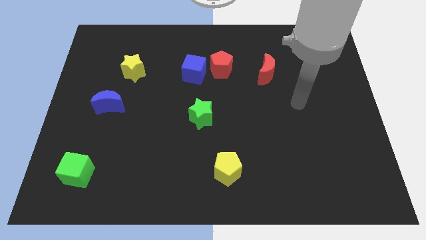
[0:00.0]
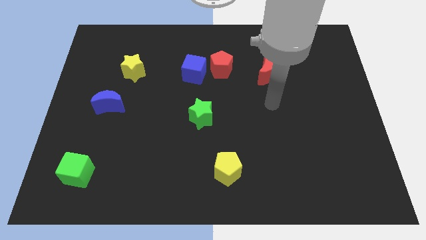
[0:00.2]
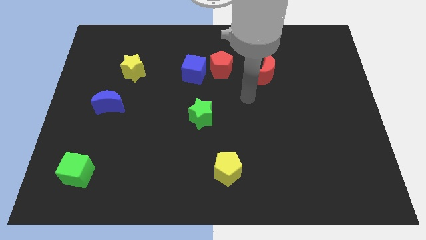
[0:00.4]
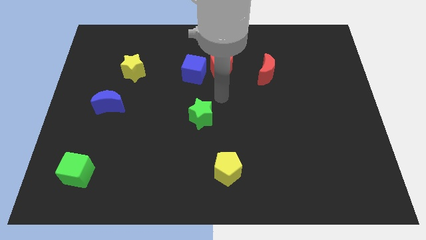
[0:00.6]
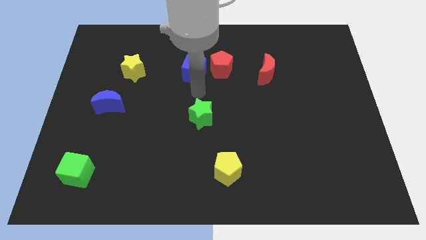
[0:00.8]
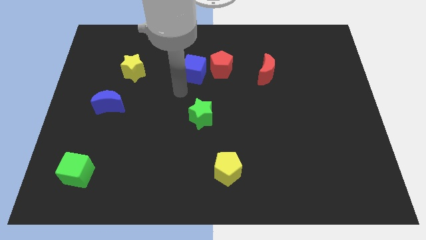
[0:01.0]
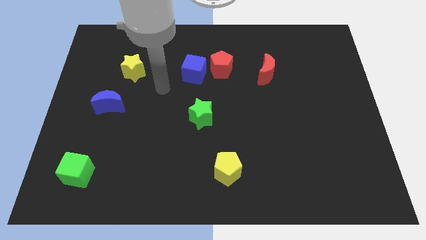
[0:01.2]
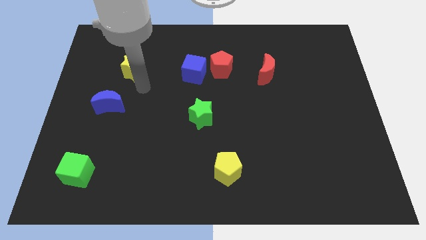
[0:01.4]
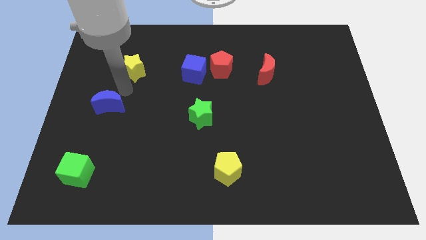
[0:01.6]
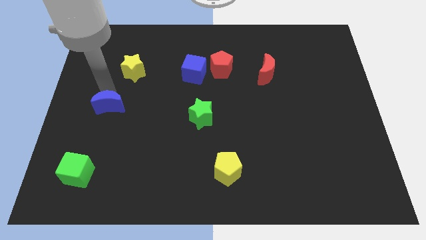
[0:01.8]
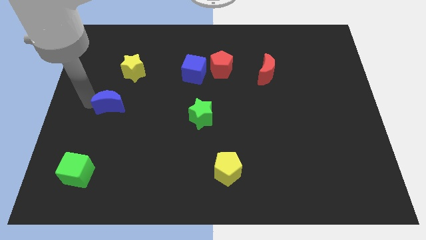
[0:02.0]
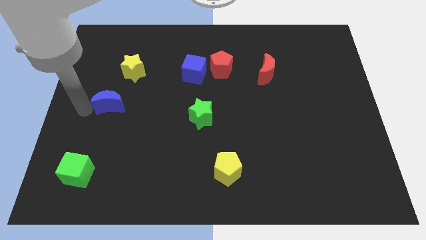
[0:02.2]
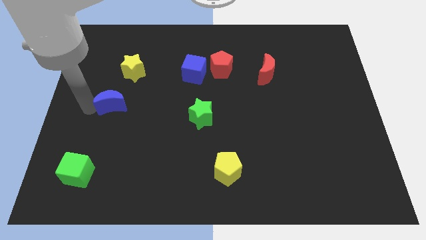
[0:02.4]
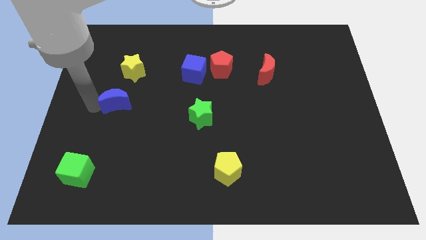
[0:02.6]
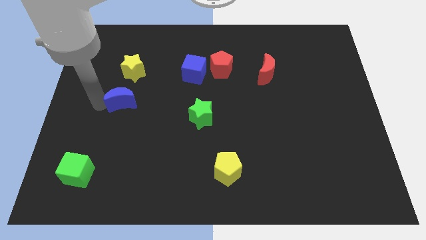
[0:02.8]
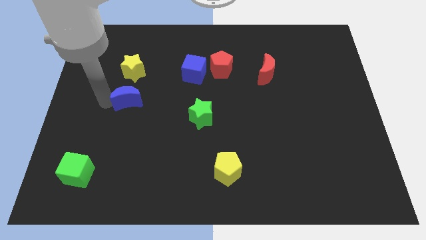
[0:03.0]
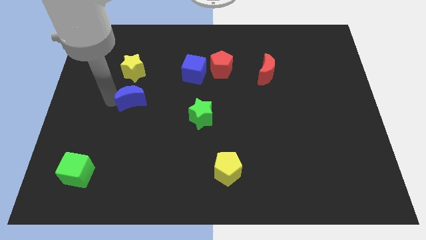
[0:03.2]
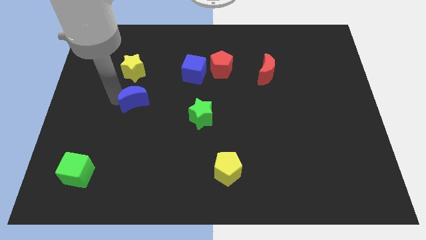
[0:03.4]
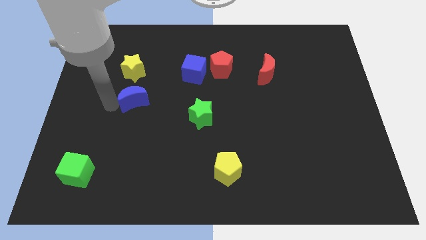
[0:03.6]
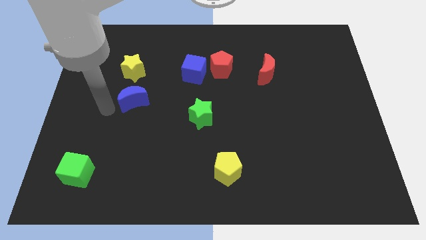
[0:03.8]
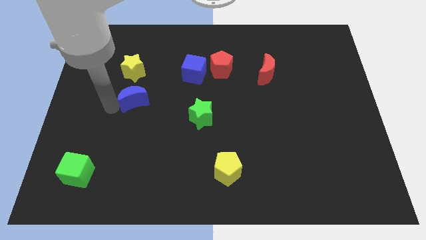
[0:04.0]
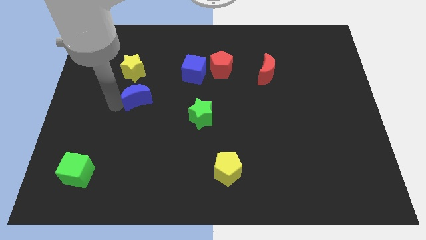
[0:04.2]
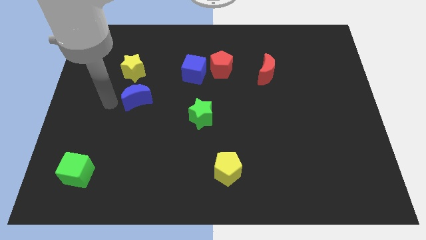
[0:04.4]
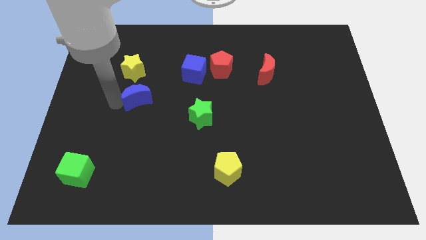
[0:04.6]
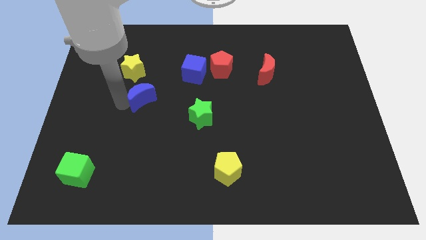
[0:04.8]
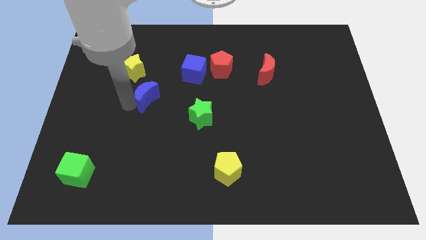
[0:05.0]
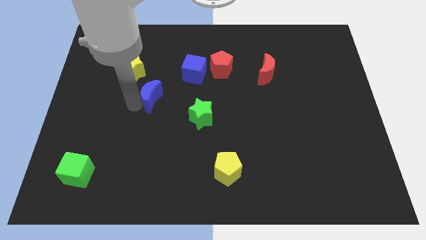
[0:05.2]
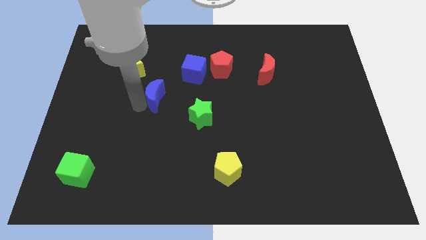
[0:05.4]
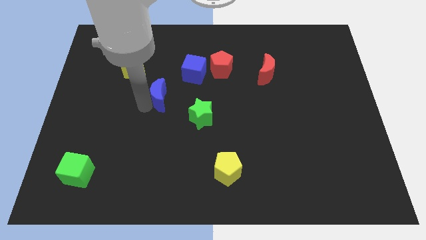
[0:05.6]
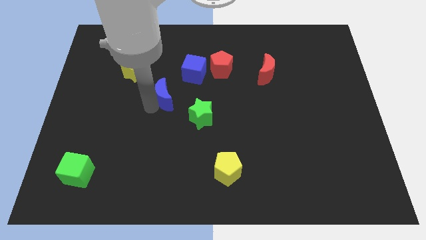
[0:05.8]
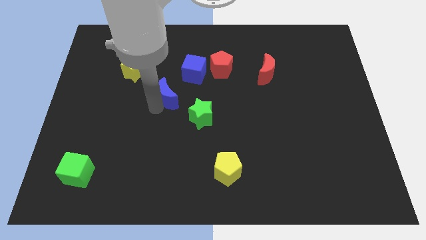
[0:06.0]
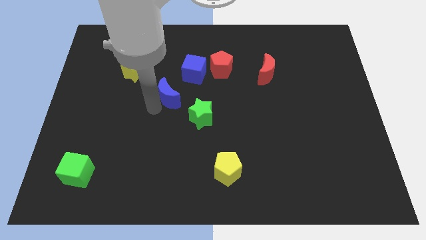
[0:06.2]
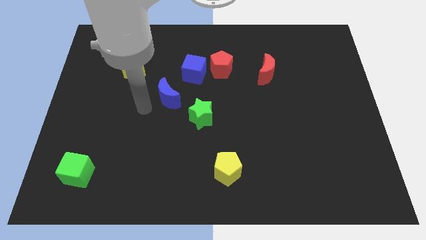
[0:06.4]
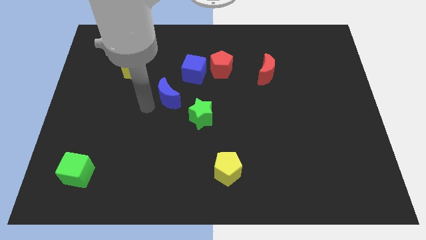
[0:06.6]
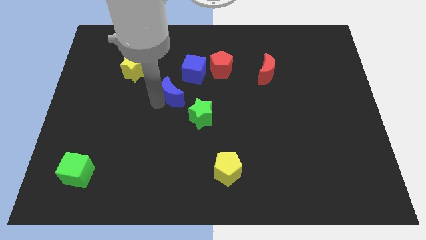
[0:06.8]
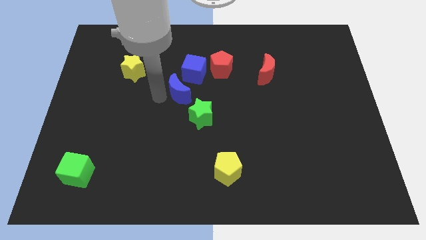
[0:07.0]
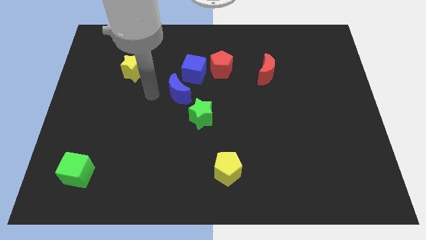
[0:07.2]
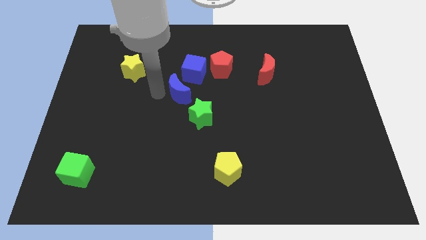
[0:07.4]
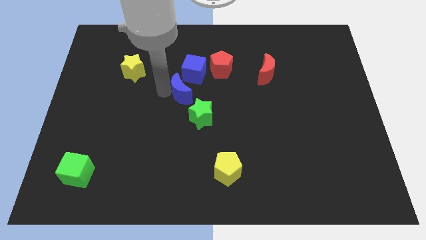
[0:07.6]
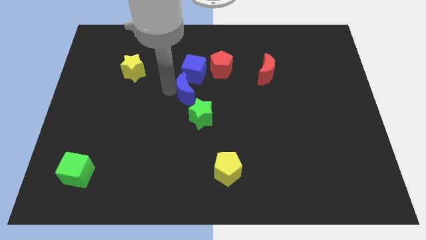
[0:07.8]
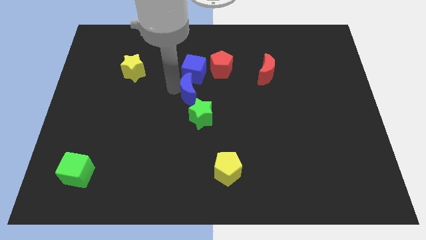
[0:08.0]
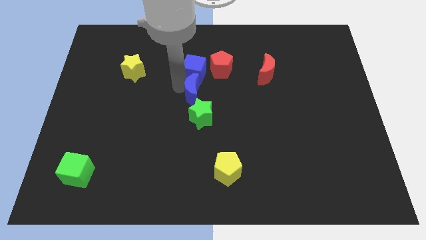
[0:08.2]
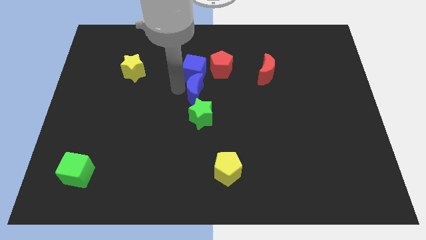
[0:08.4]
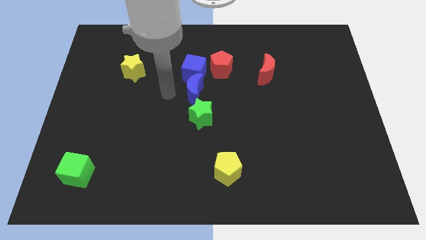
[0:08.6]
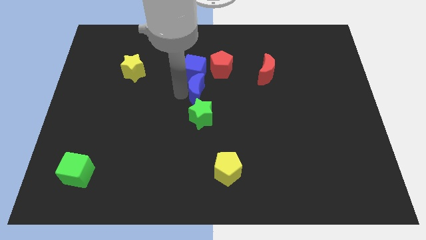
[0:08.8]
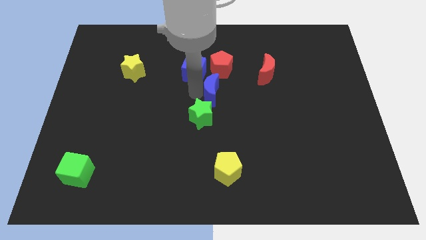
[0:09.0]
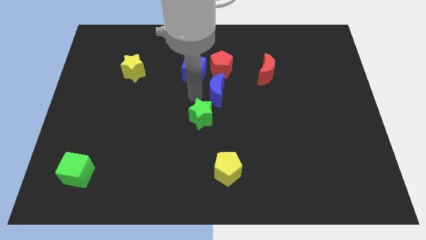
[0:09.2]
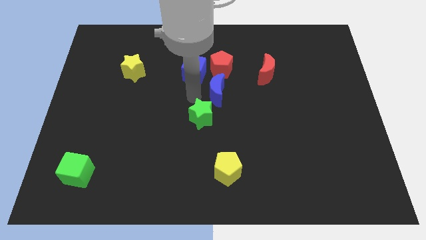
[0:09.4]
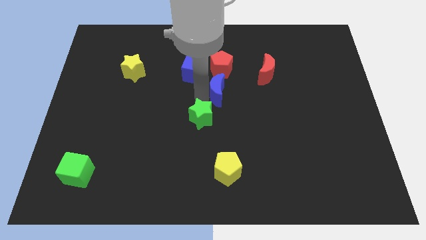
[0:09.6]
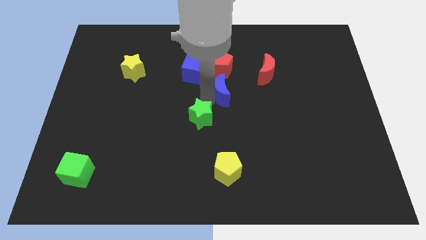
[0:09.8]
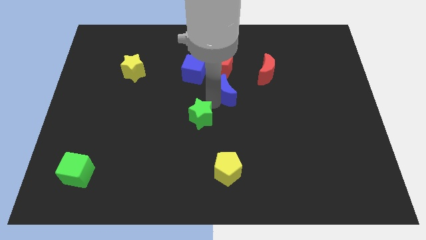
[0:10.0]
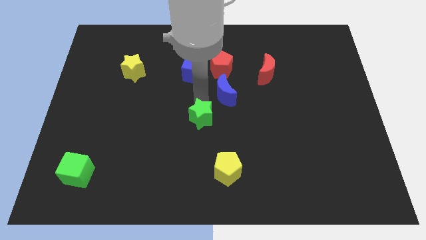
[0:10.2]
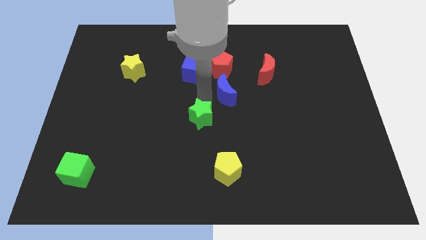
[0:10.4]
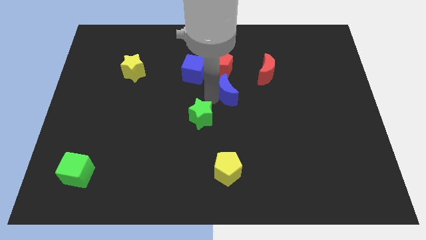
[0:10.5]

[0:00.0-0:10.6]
move the blue moon diagonally down and to the left of the red moon

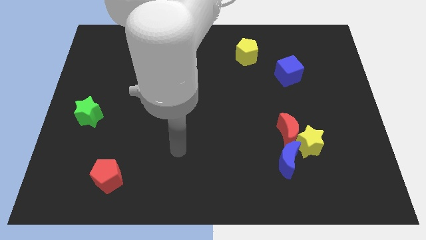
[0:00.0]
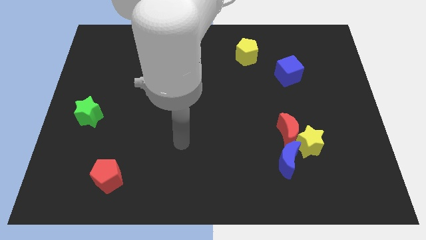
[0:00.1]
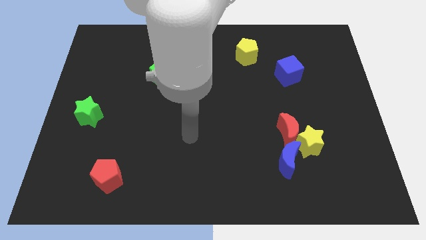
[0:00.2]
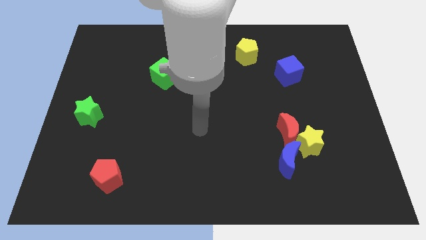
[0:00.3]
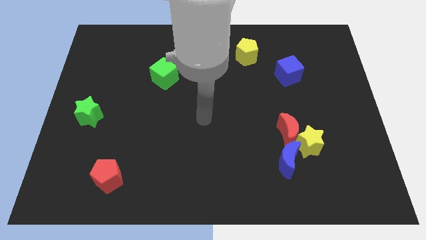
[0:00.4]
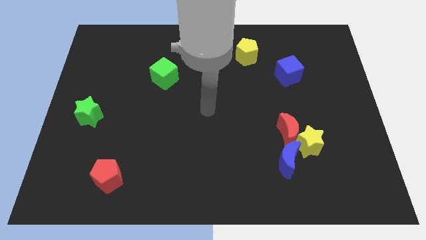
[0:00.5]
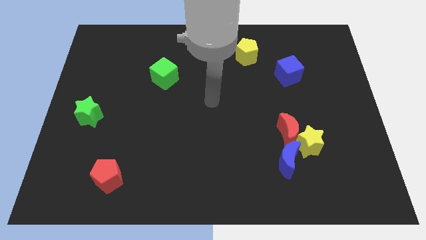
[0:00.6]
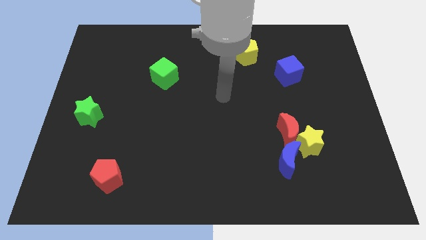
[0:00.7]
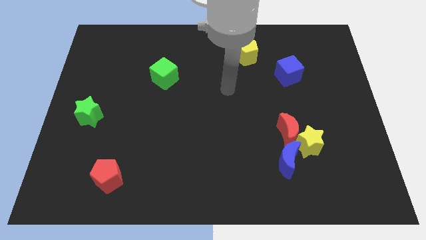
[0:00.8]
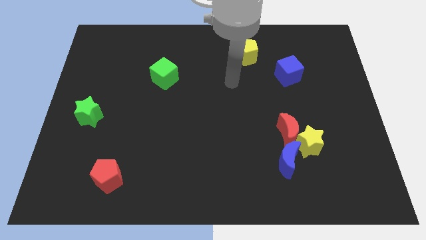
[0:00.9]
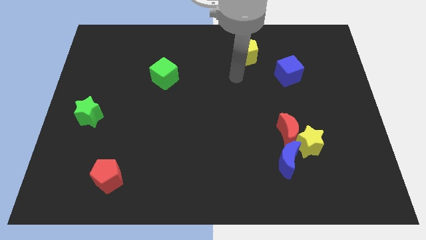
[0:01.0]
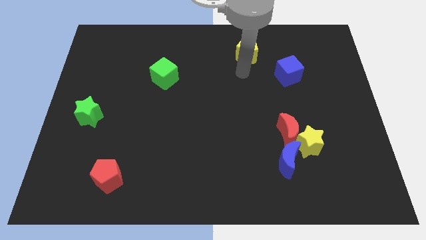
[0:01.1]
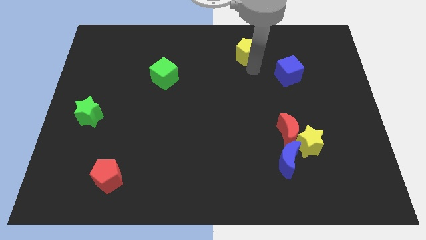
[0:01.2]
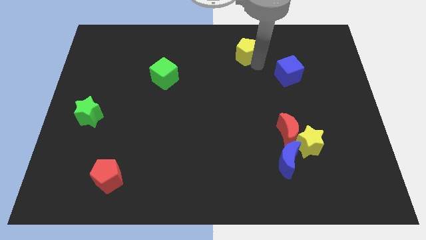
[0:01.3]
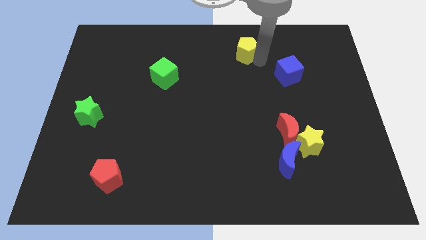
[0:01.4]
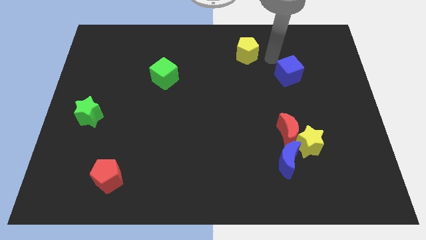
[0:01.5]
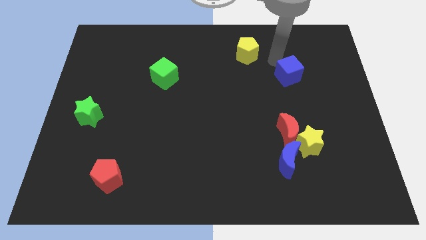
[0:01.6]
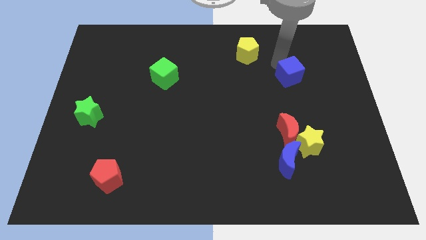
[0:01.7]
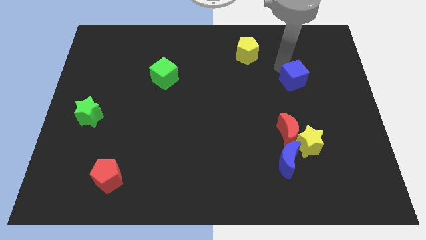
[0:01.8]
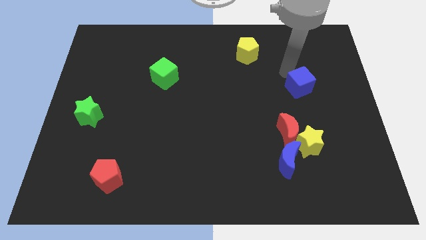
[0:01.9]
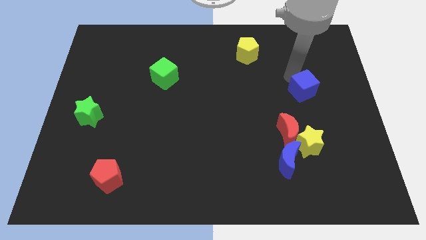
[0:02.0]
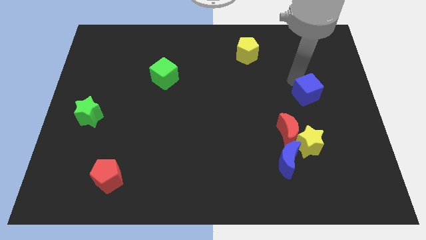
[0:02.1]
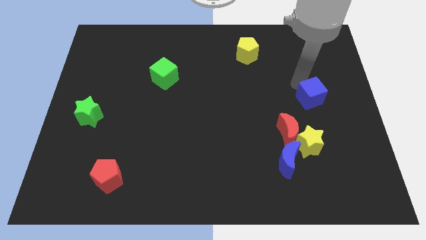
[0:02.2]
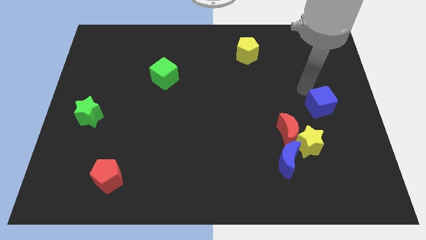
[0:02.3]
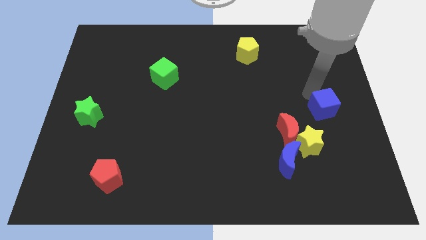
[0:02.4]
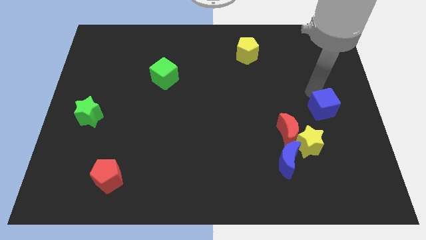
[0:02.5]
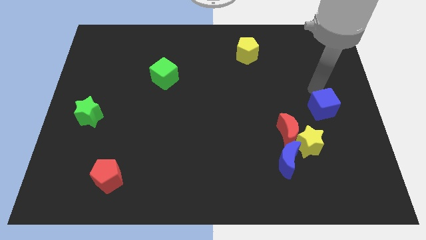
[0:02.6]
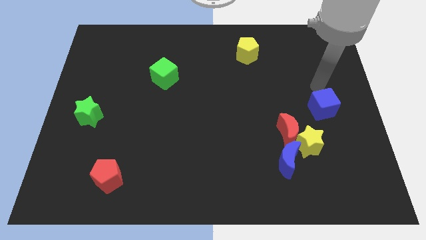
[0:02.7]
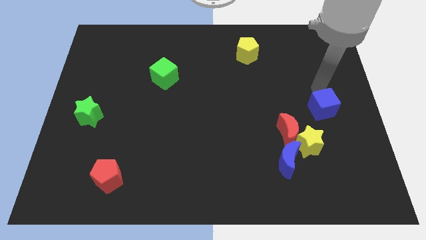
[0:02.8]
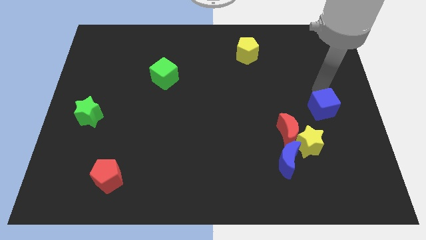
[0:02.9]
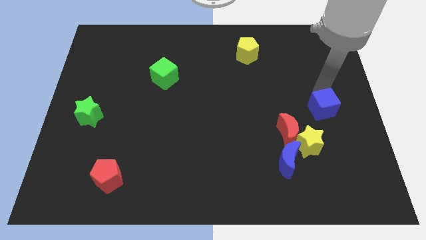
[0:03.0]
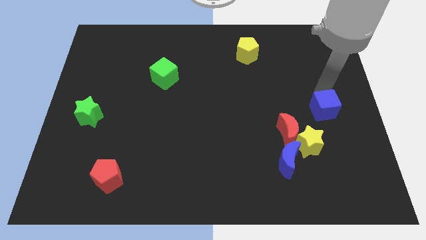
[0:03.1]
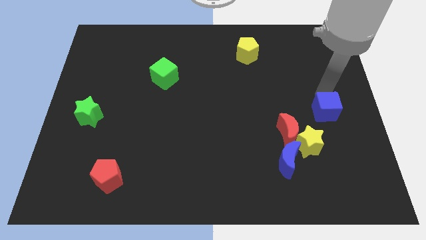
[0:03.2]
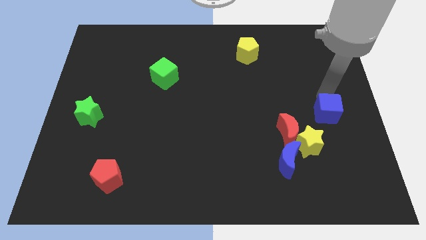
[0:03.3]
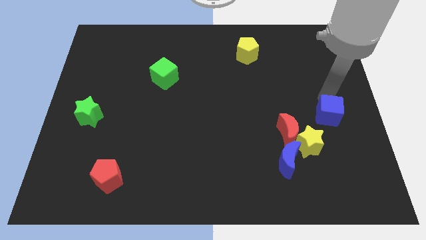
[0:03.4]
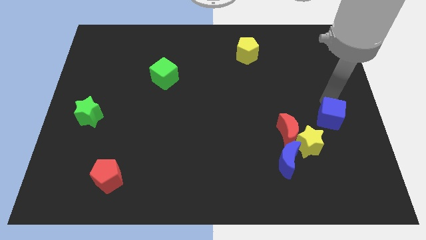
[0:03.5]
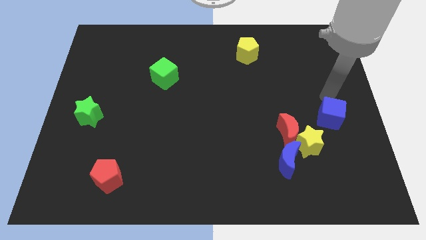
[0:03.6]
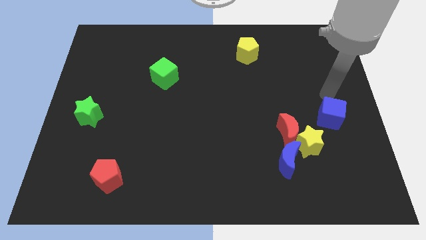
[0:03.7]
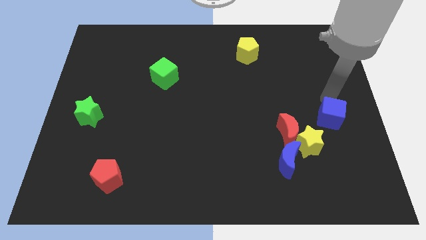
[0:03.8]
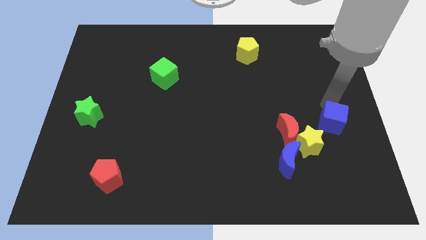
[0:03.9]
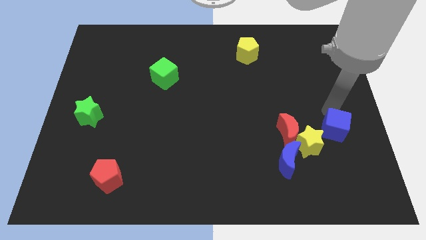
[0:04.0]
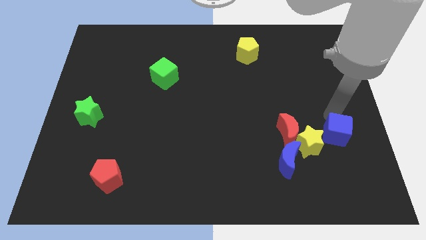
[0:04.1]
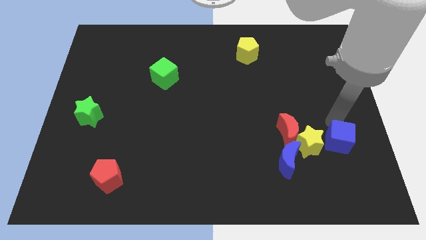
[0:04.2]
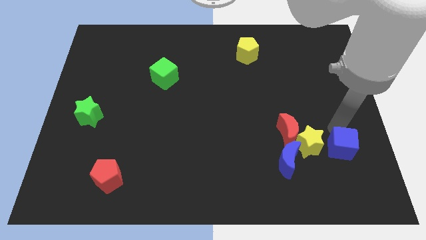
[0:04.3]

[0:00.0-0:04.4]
move the blue cube just right of the blue moon
